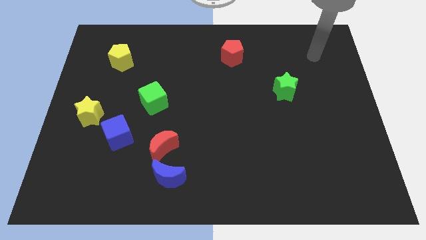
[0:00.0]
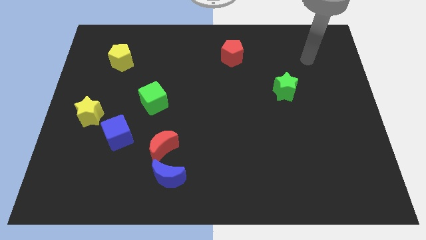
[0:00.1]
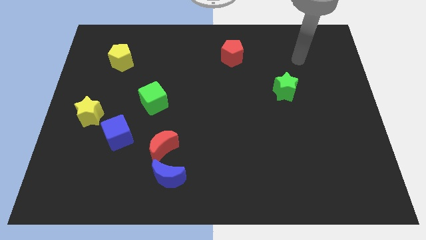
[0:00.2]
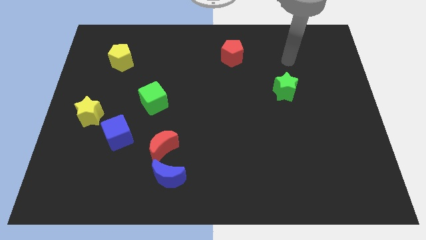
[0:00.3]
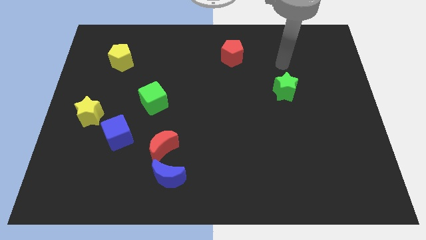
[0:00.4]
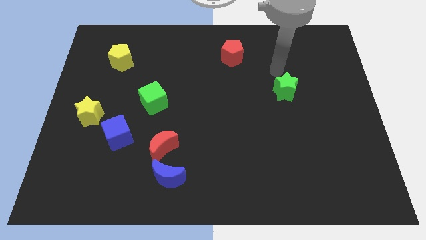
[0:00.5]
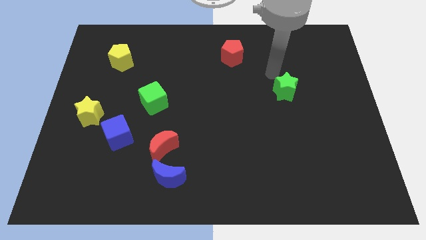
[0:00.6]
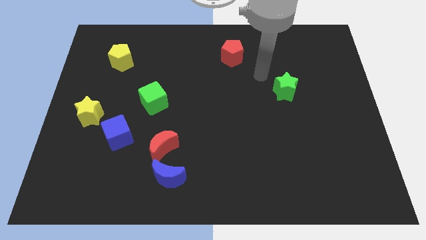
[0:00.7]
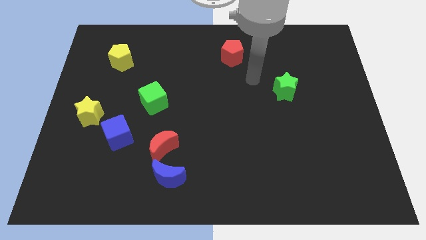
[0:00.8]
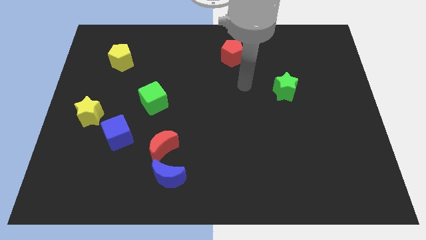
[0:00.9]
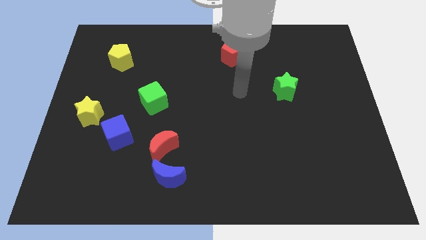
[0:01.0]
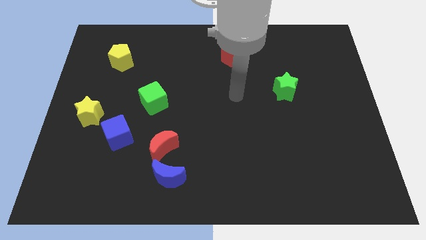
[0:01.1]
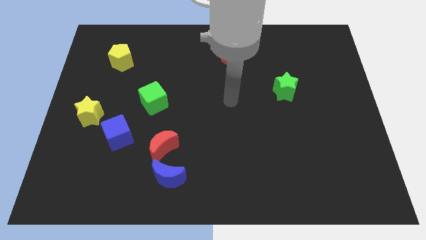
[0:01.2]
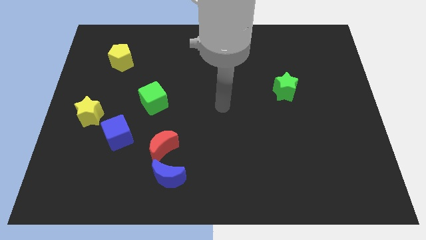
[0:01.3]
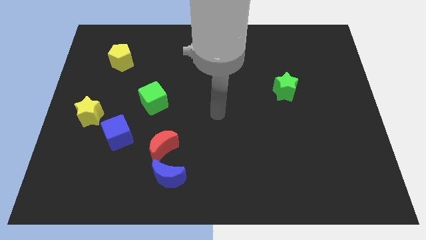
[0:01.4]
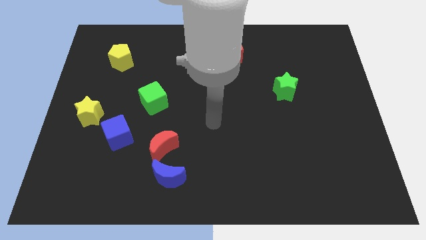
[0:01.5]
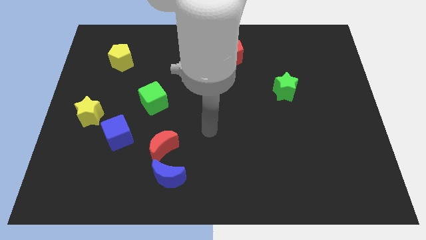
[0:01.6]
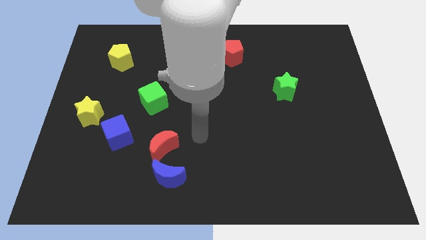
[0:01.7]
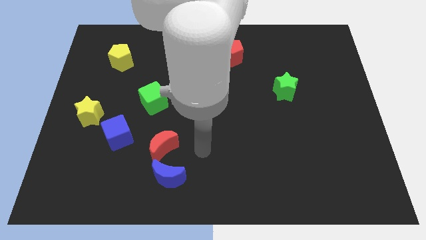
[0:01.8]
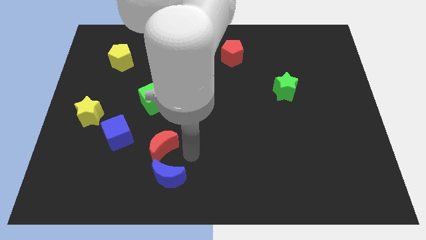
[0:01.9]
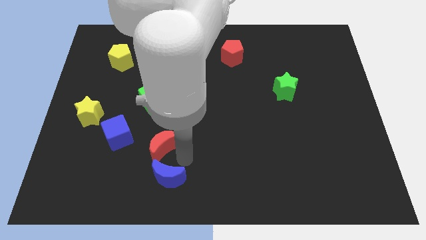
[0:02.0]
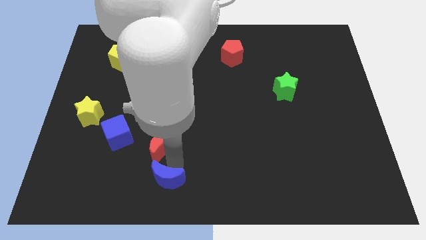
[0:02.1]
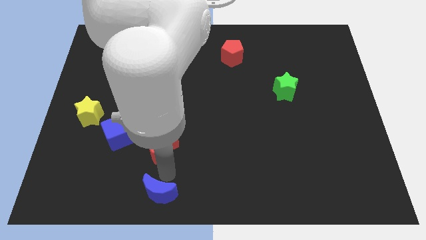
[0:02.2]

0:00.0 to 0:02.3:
separate the red moon from the blue moon

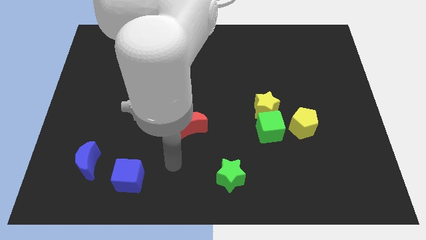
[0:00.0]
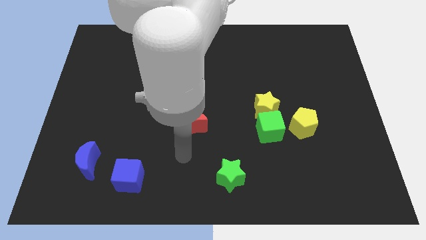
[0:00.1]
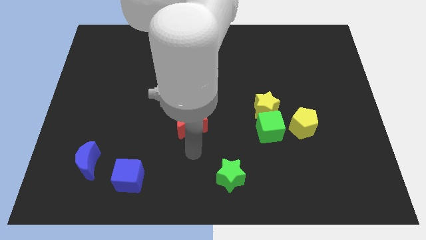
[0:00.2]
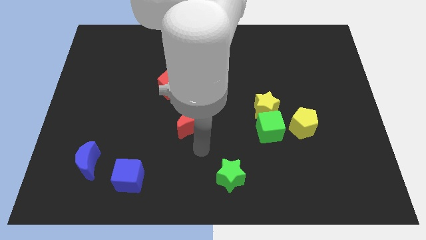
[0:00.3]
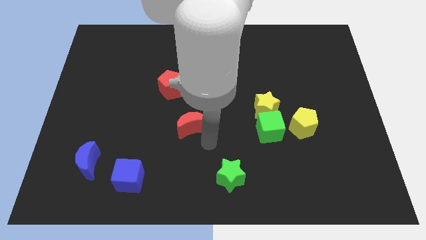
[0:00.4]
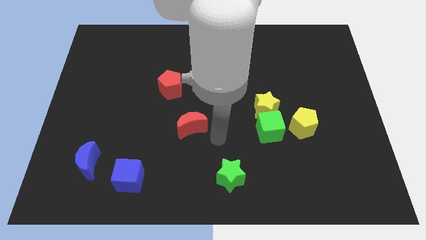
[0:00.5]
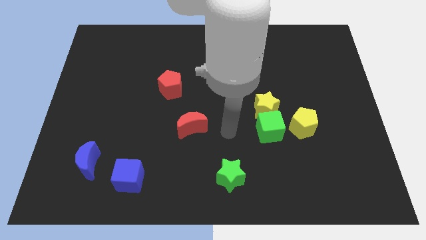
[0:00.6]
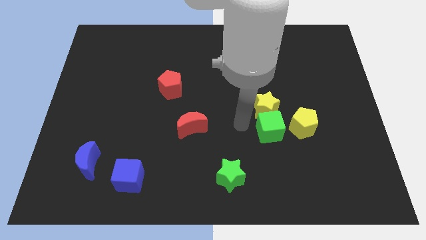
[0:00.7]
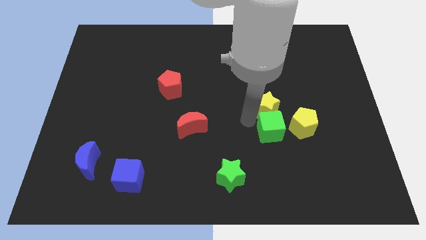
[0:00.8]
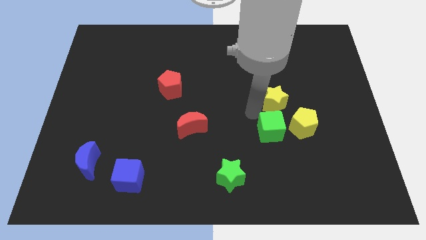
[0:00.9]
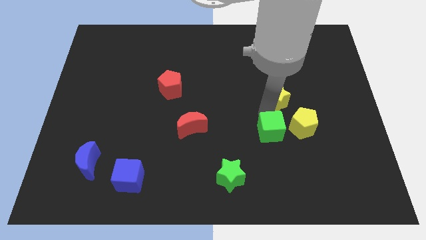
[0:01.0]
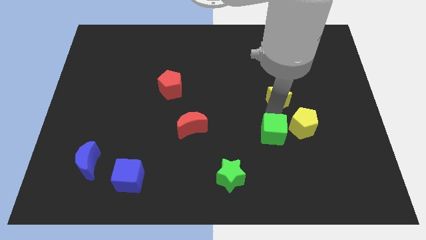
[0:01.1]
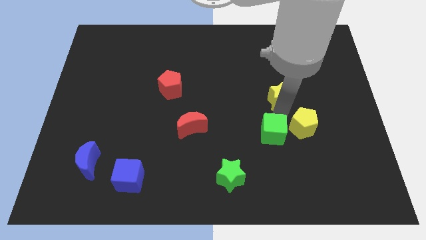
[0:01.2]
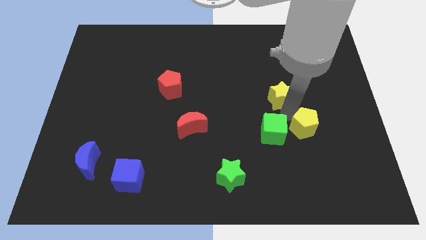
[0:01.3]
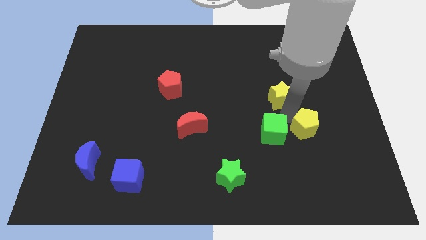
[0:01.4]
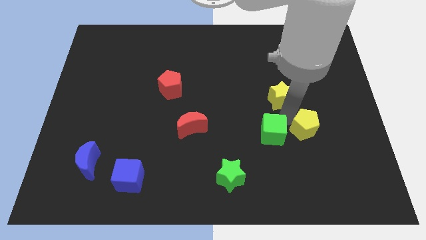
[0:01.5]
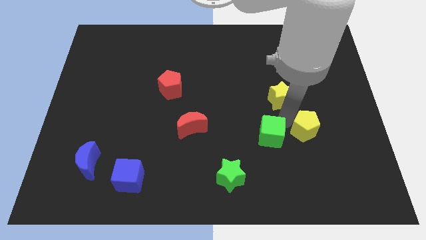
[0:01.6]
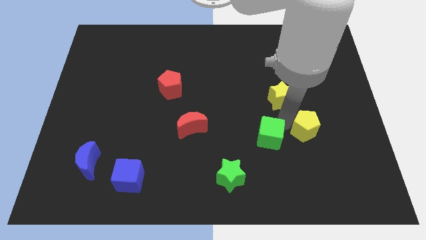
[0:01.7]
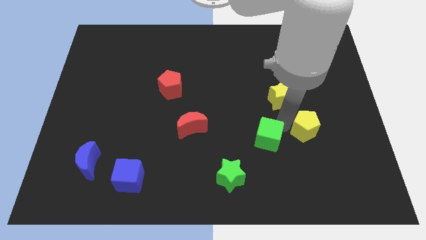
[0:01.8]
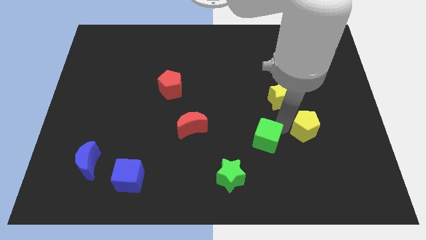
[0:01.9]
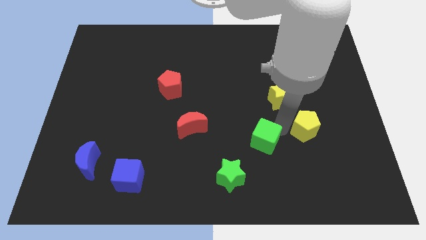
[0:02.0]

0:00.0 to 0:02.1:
move the green cube away from the yellow star and yellow pentagon

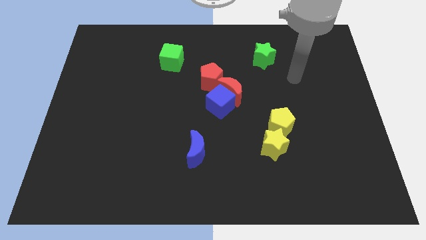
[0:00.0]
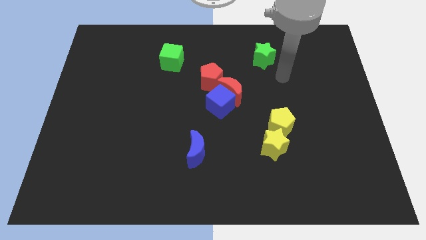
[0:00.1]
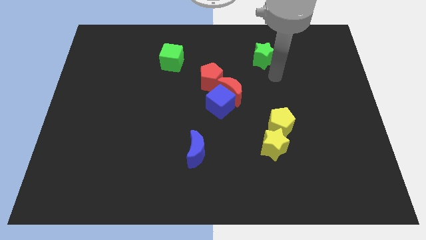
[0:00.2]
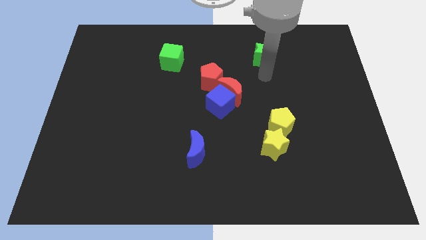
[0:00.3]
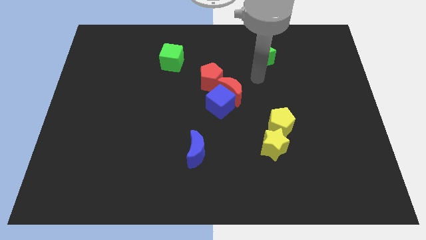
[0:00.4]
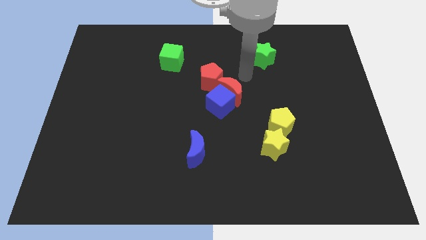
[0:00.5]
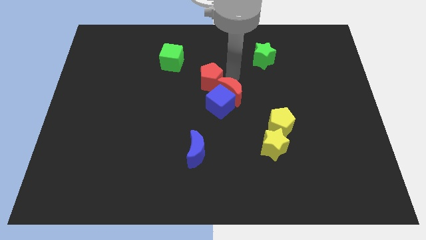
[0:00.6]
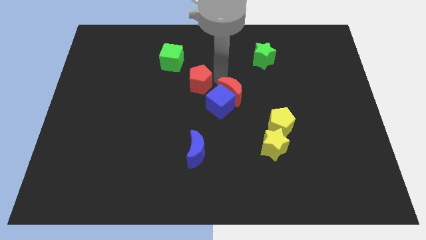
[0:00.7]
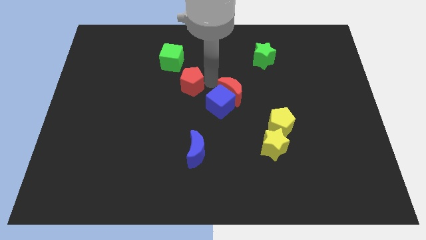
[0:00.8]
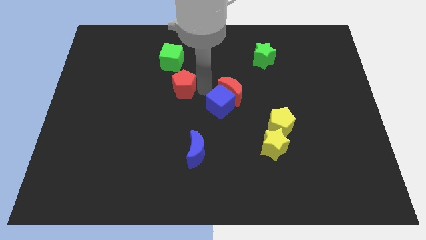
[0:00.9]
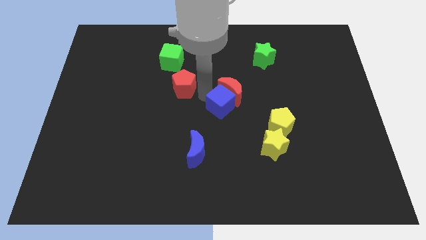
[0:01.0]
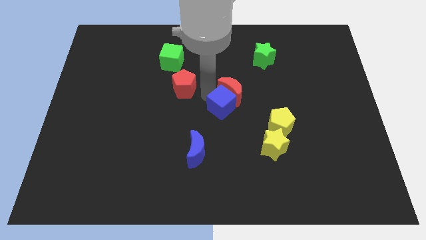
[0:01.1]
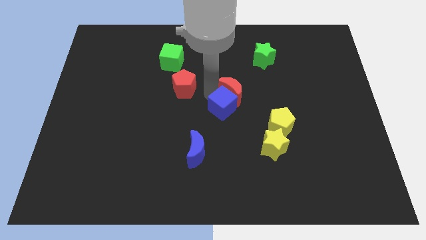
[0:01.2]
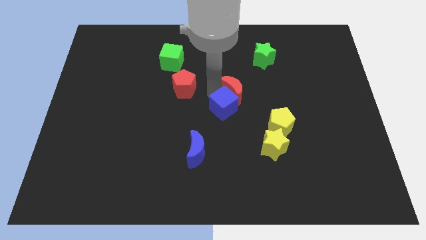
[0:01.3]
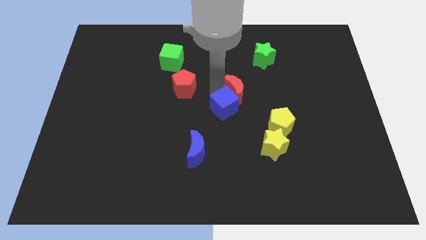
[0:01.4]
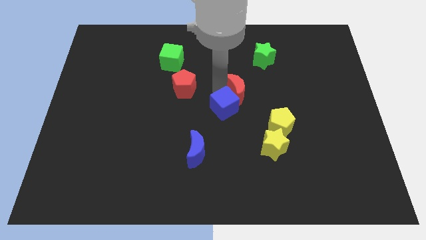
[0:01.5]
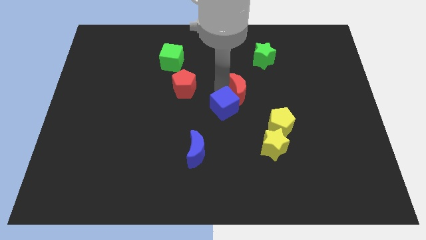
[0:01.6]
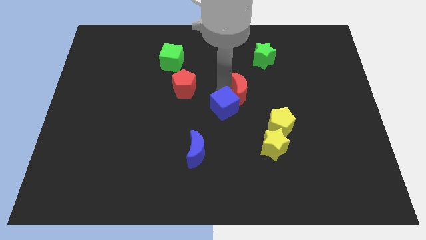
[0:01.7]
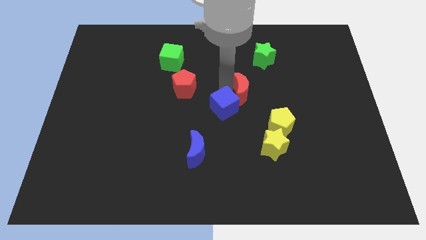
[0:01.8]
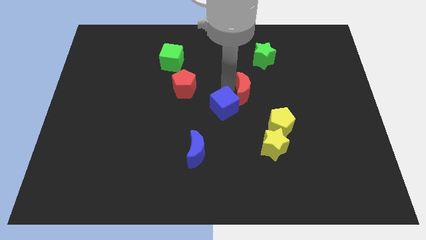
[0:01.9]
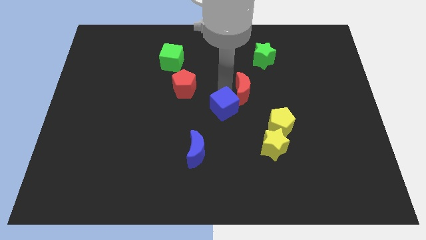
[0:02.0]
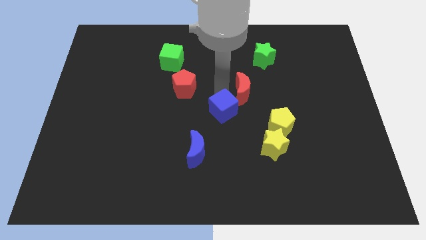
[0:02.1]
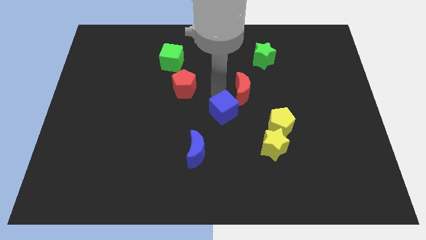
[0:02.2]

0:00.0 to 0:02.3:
move the red moon away from the blue cube and red pentagon

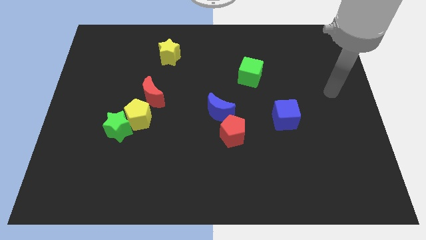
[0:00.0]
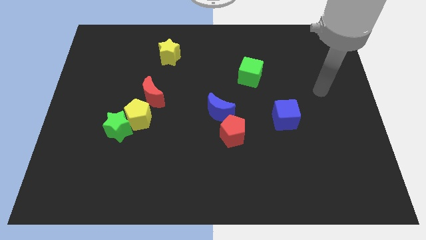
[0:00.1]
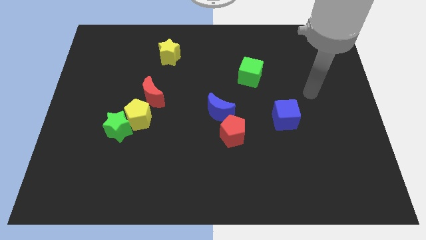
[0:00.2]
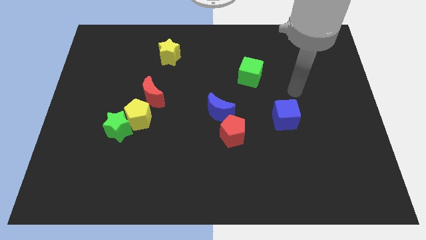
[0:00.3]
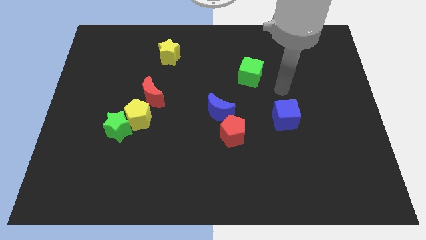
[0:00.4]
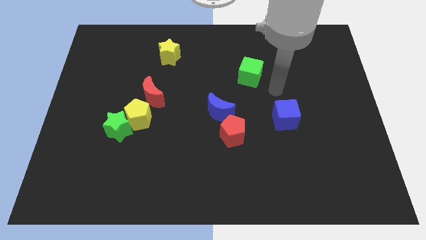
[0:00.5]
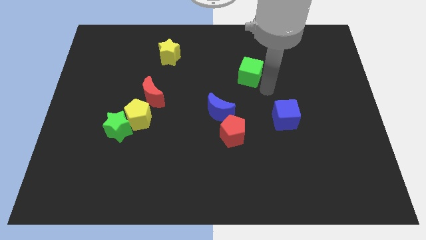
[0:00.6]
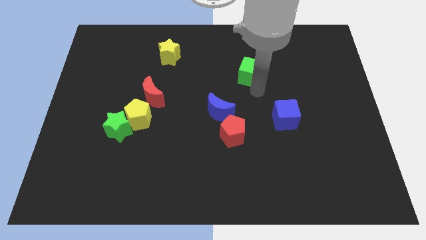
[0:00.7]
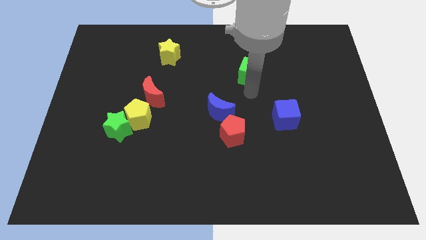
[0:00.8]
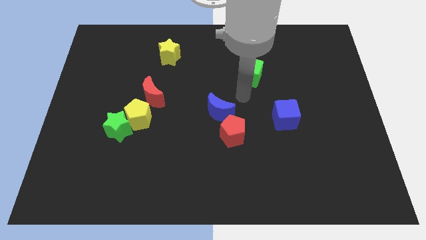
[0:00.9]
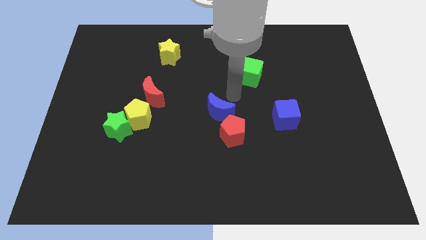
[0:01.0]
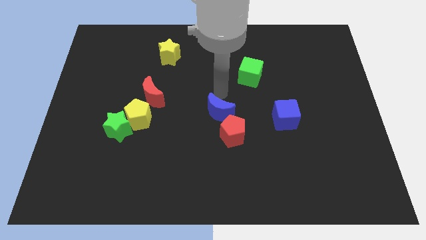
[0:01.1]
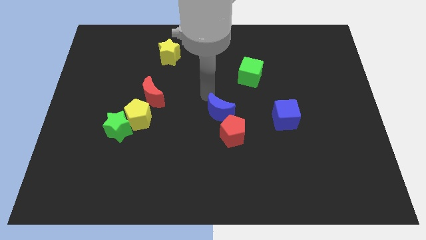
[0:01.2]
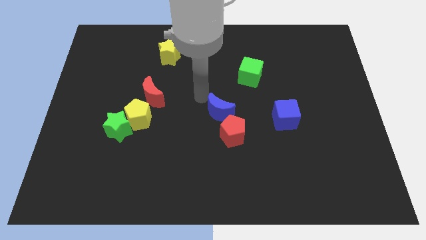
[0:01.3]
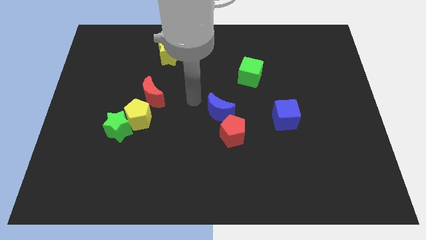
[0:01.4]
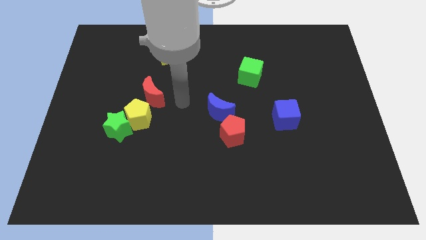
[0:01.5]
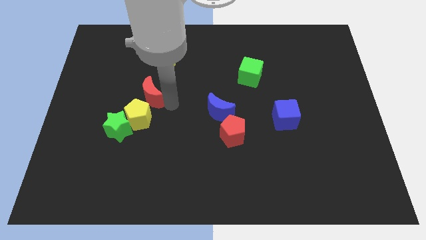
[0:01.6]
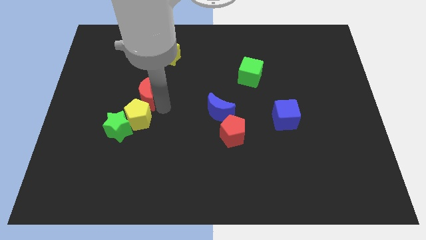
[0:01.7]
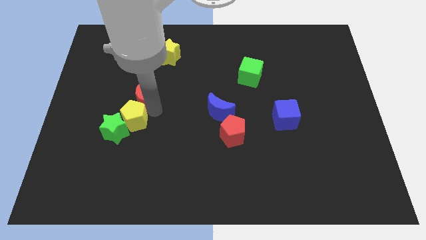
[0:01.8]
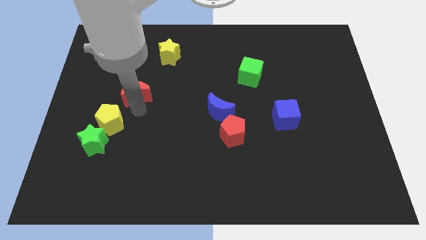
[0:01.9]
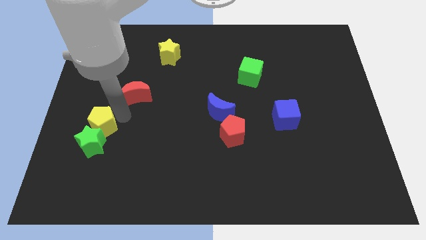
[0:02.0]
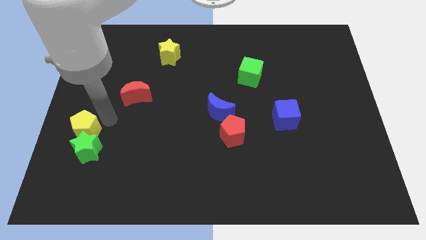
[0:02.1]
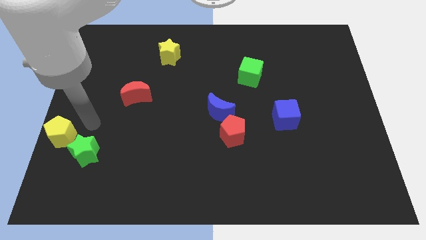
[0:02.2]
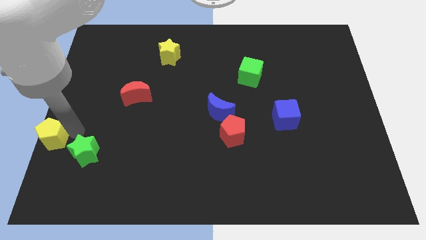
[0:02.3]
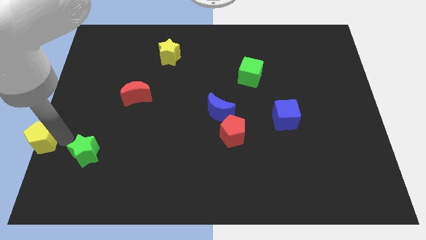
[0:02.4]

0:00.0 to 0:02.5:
pull the green star apart from the yellow pentagon

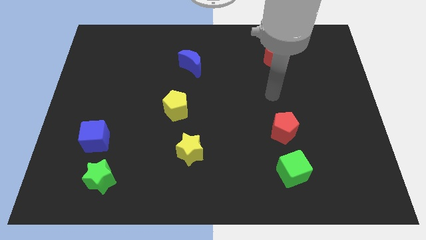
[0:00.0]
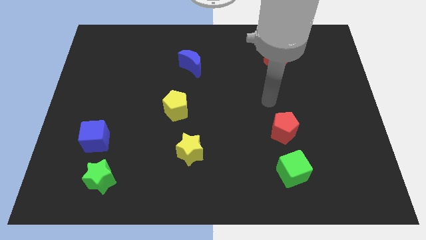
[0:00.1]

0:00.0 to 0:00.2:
separate the blue cube from the green star
